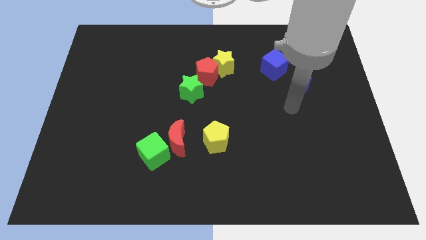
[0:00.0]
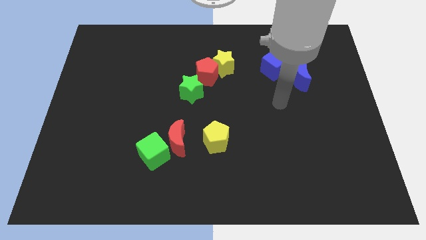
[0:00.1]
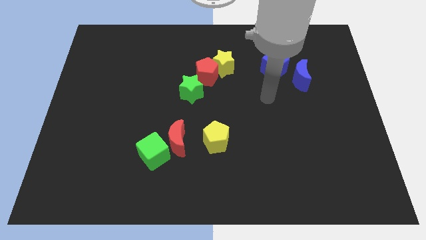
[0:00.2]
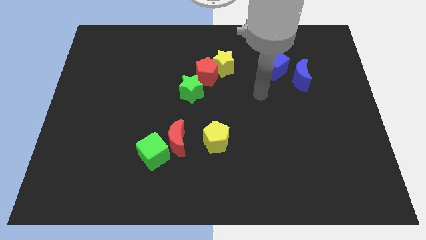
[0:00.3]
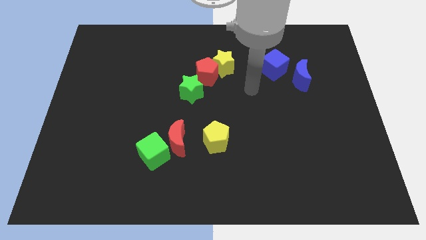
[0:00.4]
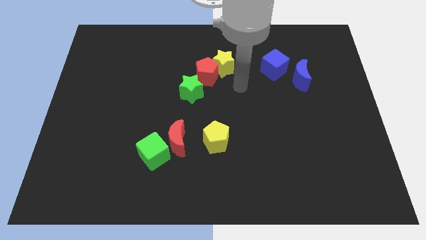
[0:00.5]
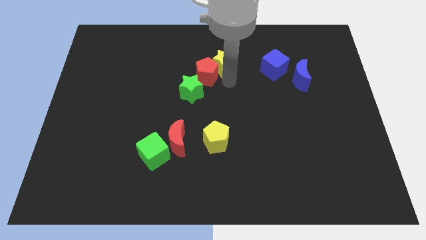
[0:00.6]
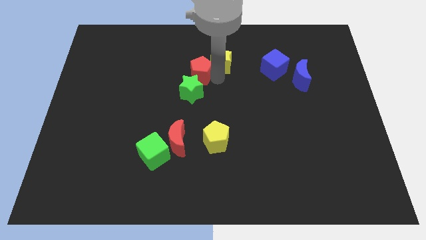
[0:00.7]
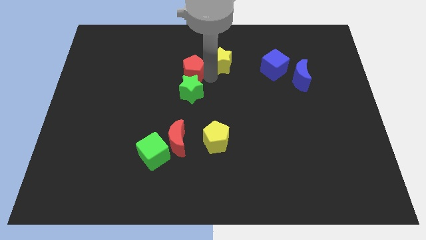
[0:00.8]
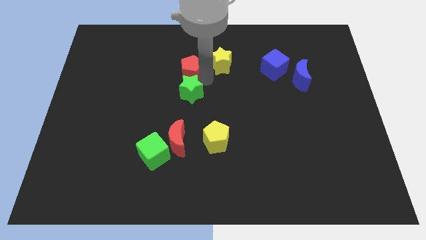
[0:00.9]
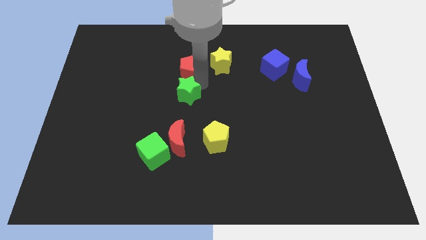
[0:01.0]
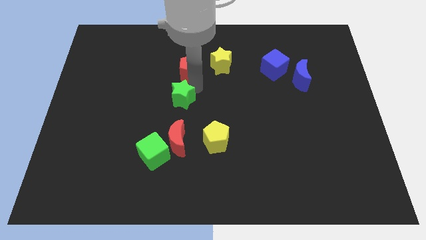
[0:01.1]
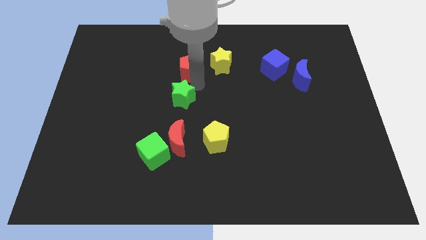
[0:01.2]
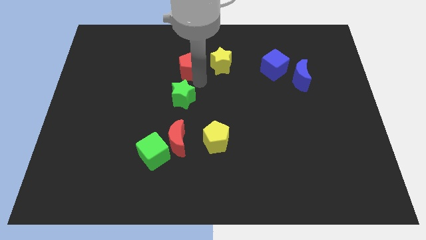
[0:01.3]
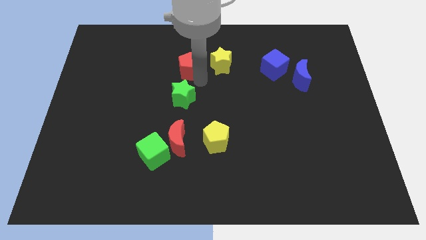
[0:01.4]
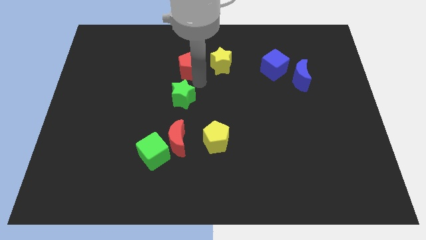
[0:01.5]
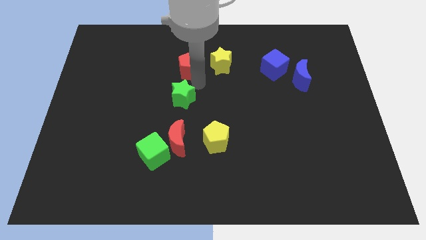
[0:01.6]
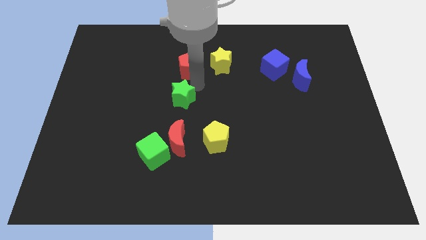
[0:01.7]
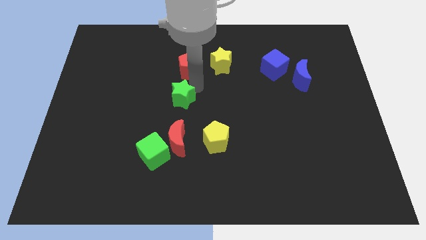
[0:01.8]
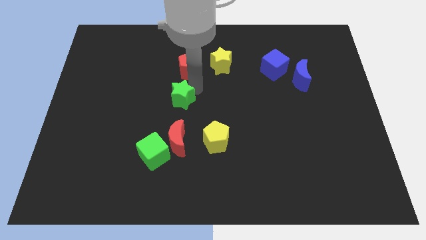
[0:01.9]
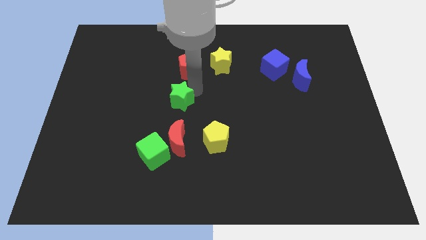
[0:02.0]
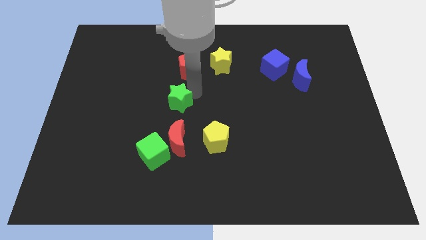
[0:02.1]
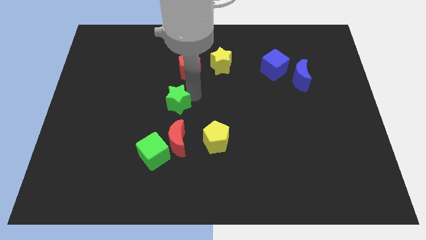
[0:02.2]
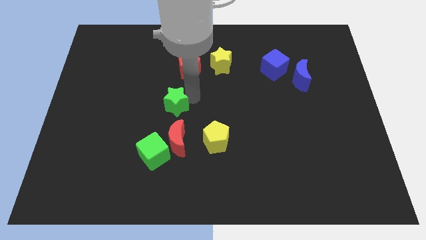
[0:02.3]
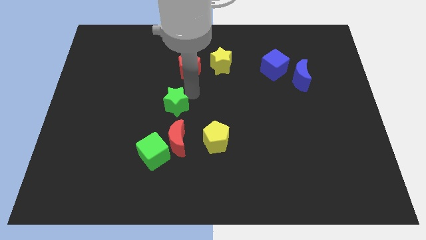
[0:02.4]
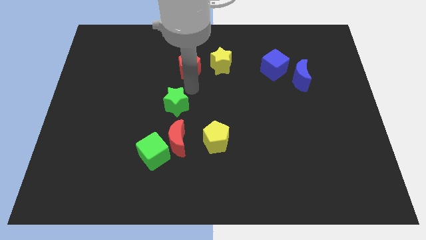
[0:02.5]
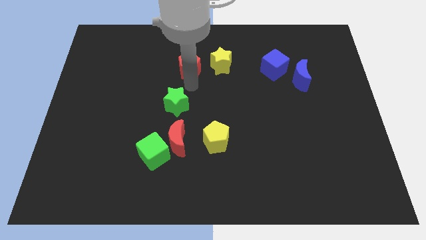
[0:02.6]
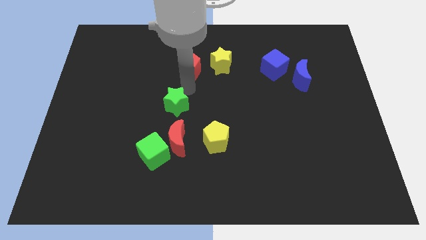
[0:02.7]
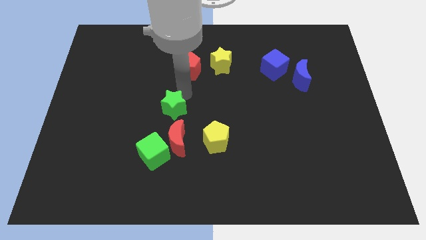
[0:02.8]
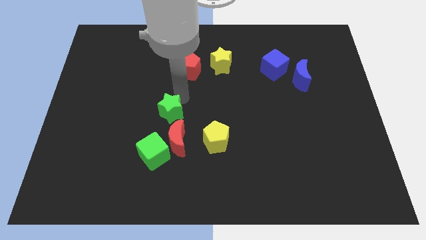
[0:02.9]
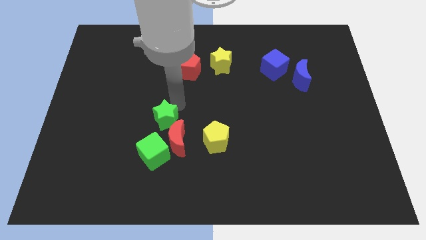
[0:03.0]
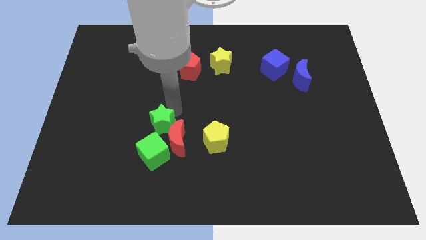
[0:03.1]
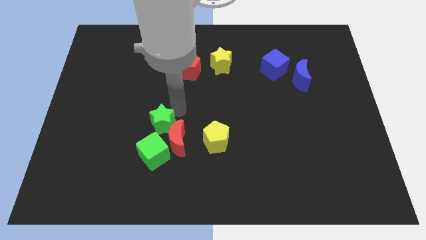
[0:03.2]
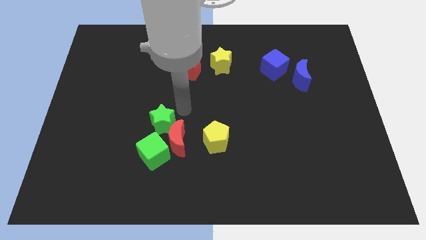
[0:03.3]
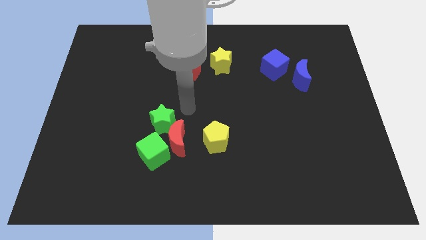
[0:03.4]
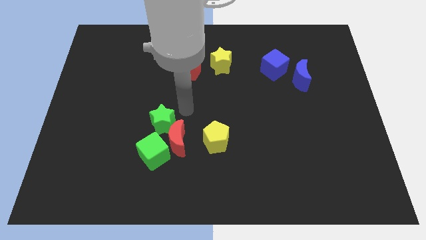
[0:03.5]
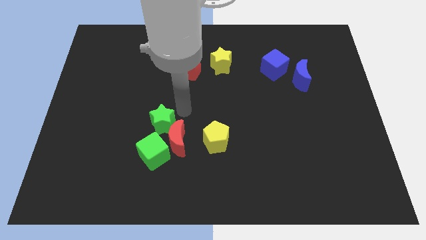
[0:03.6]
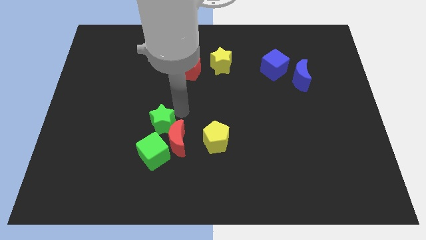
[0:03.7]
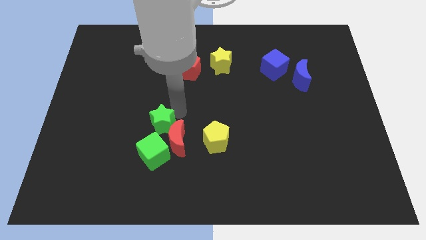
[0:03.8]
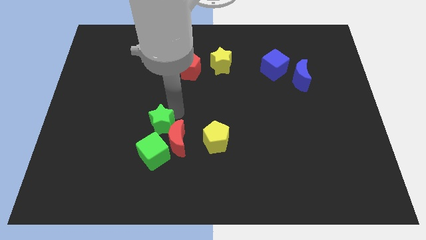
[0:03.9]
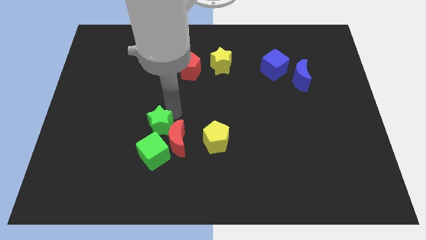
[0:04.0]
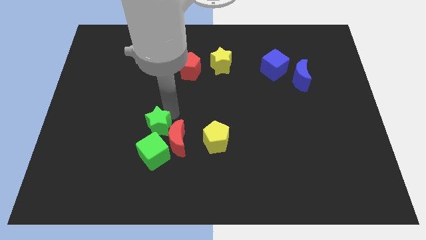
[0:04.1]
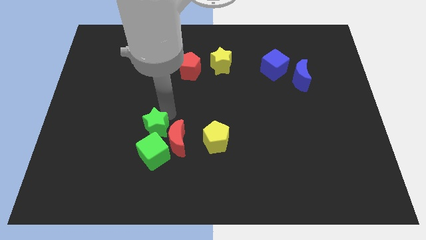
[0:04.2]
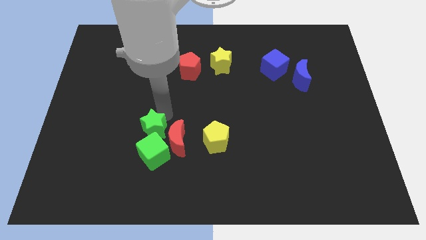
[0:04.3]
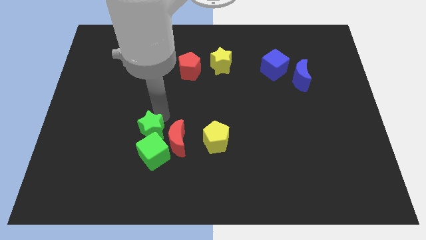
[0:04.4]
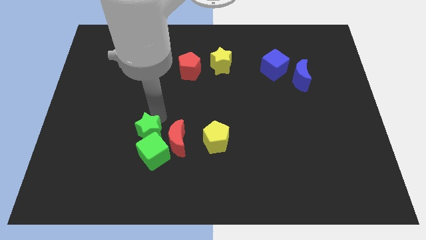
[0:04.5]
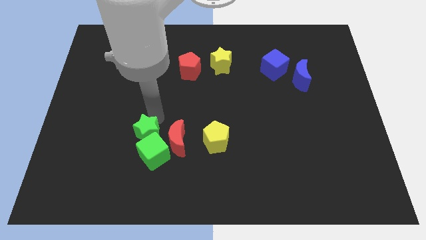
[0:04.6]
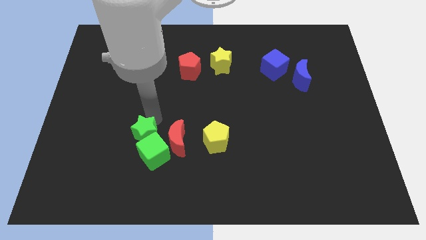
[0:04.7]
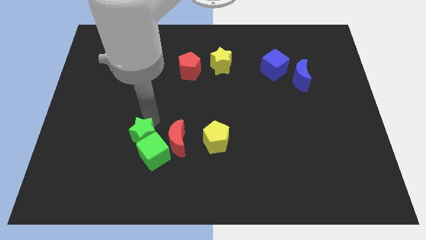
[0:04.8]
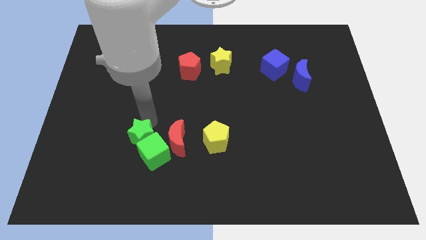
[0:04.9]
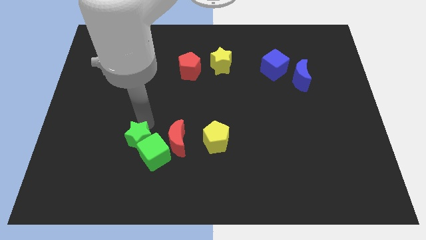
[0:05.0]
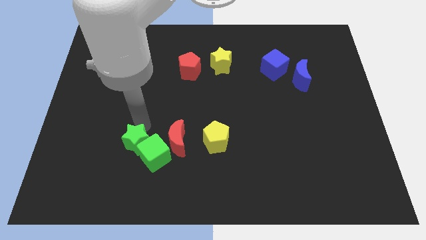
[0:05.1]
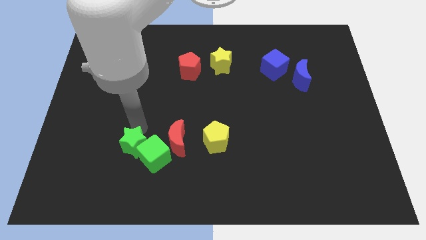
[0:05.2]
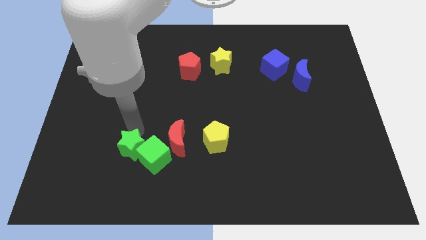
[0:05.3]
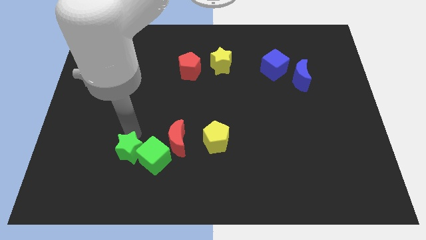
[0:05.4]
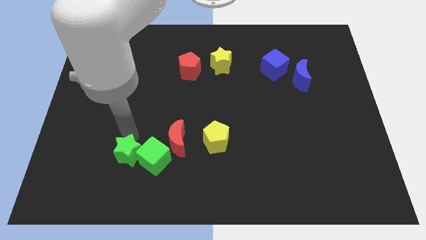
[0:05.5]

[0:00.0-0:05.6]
push the green star to the bottom left side of the green cube

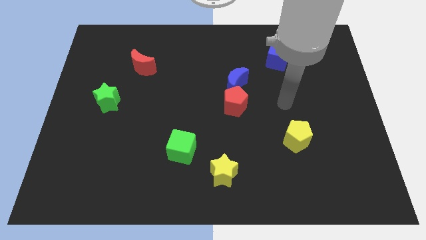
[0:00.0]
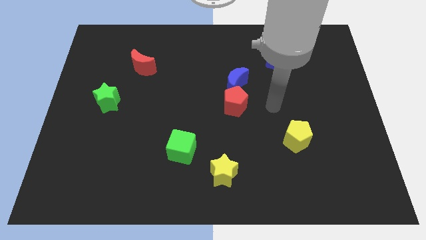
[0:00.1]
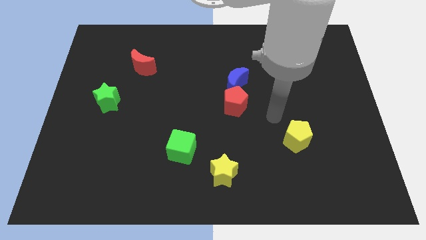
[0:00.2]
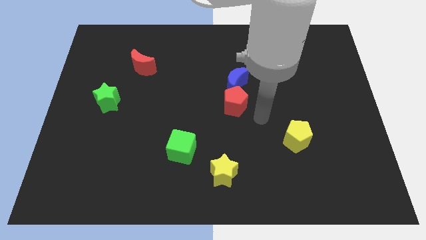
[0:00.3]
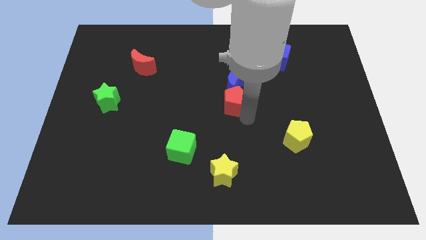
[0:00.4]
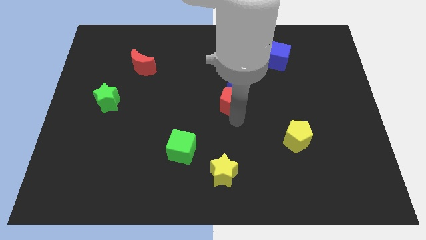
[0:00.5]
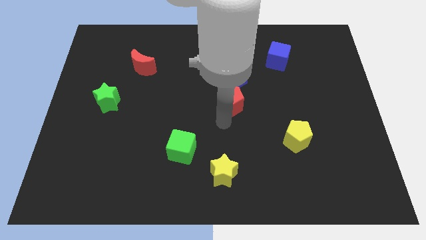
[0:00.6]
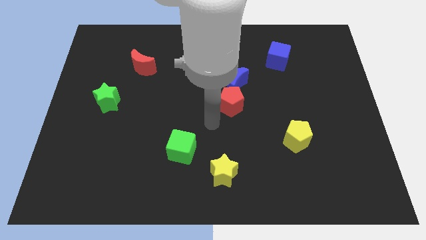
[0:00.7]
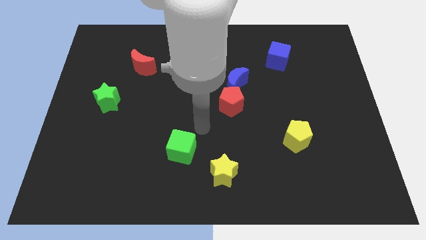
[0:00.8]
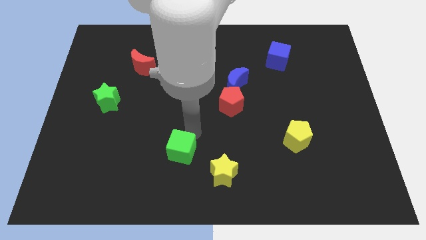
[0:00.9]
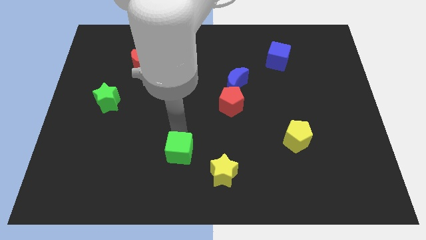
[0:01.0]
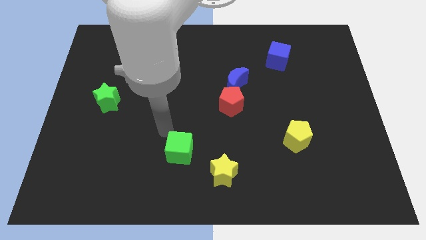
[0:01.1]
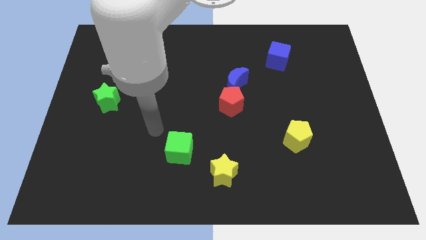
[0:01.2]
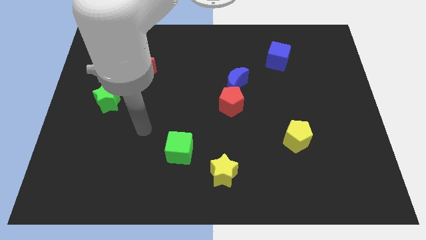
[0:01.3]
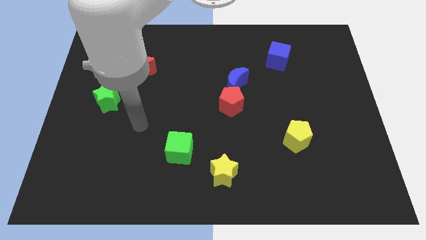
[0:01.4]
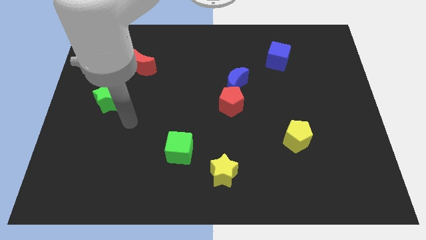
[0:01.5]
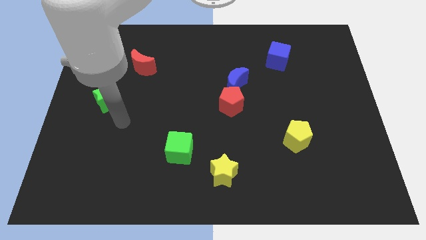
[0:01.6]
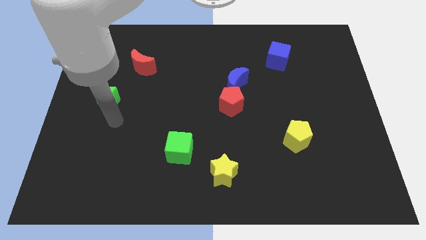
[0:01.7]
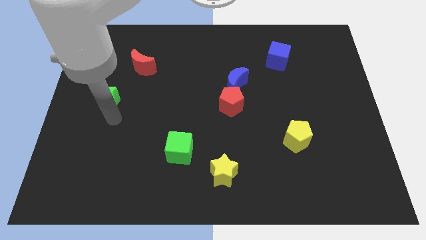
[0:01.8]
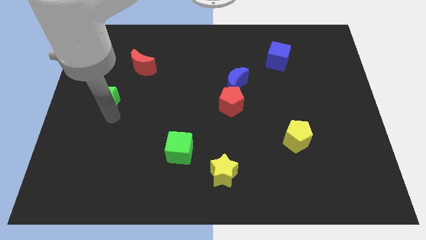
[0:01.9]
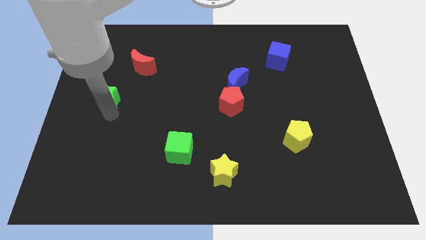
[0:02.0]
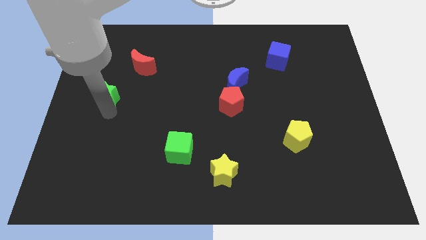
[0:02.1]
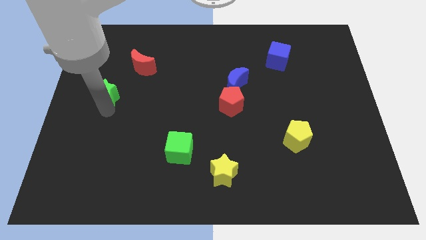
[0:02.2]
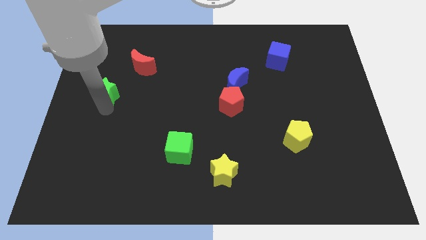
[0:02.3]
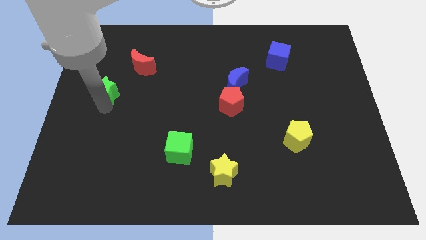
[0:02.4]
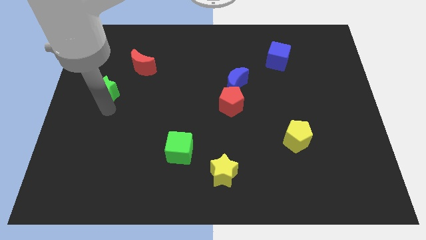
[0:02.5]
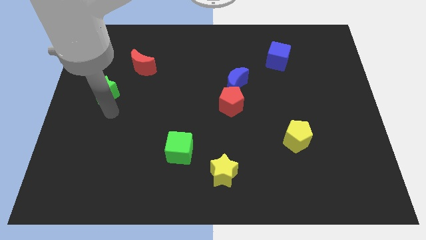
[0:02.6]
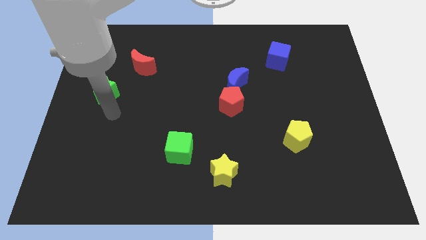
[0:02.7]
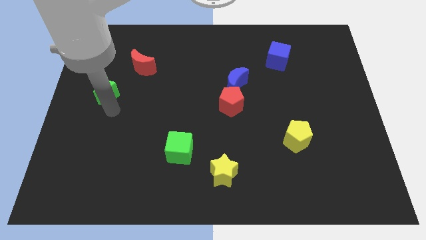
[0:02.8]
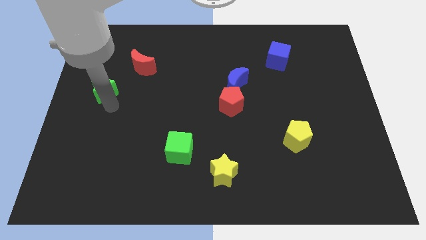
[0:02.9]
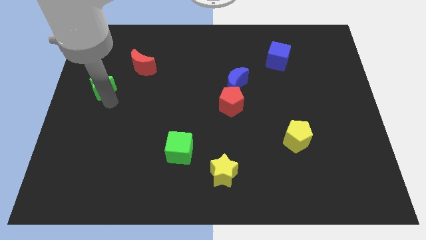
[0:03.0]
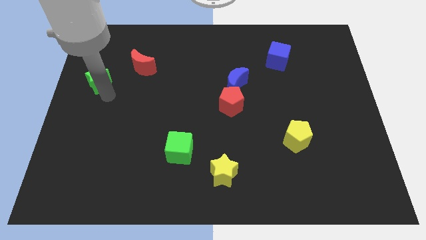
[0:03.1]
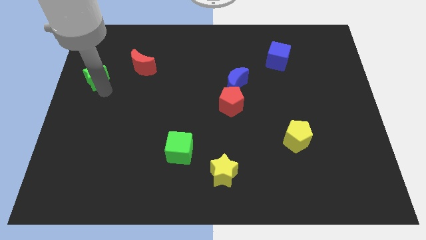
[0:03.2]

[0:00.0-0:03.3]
push the green star just left of the red moon
